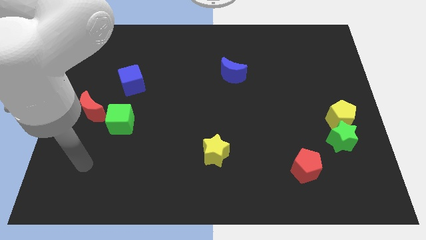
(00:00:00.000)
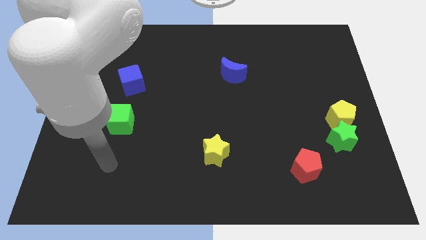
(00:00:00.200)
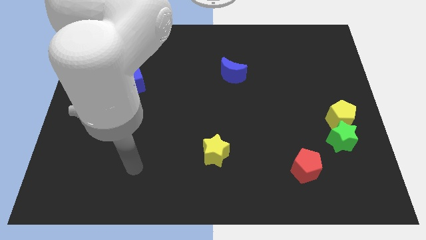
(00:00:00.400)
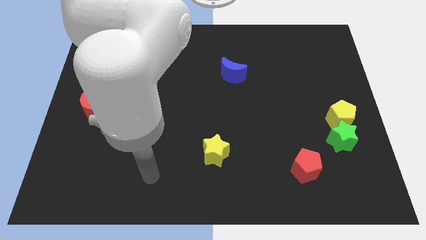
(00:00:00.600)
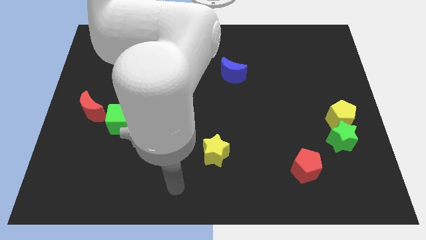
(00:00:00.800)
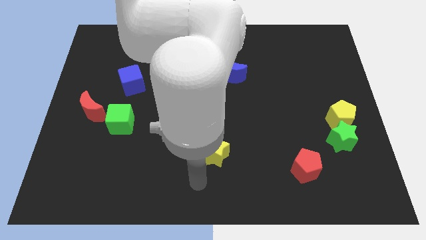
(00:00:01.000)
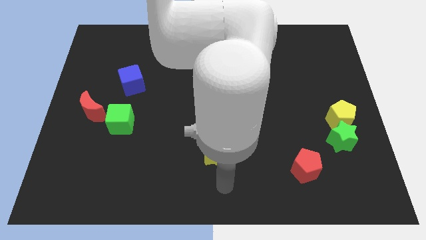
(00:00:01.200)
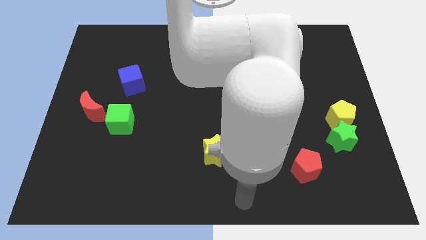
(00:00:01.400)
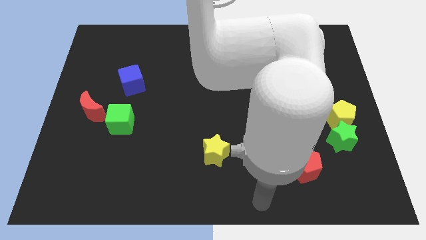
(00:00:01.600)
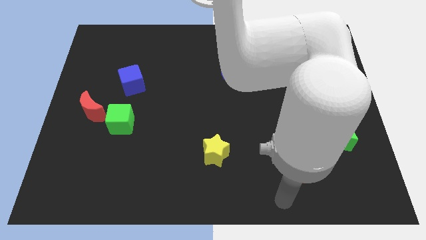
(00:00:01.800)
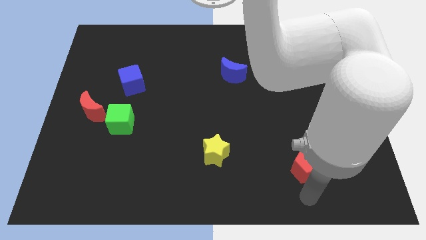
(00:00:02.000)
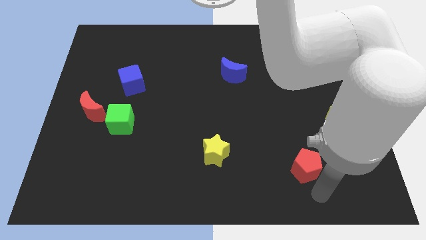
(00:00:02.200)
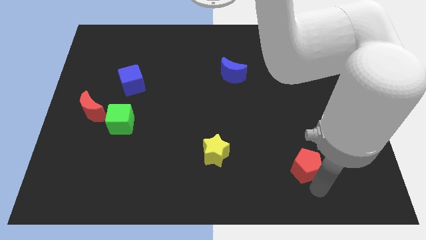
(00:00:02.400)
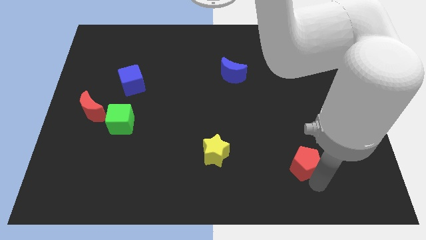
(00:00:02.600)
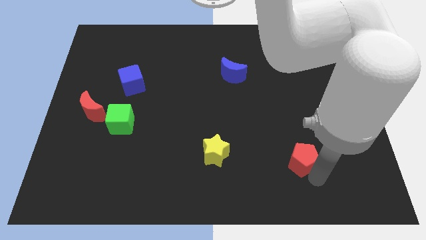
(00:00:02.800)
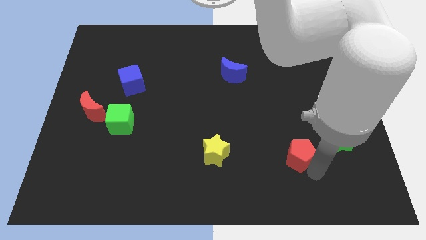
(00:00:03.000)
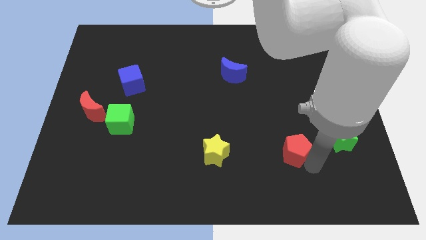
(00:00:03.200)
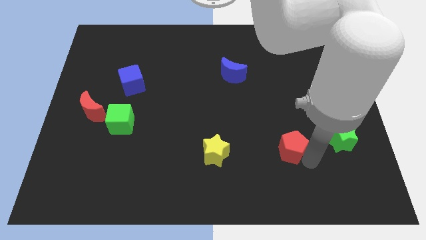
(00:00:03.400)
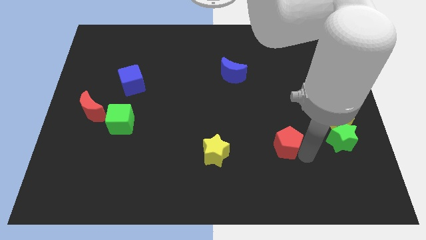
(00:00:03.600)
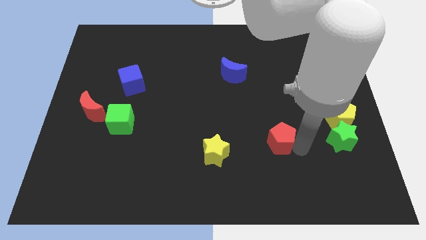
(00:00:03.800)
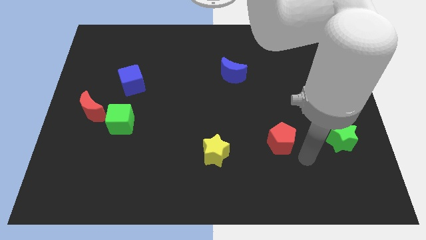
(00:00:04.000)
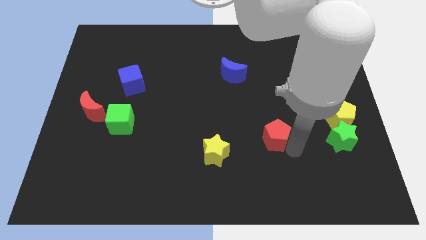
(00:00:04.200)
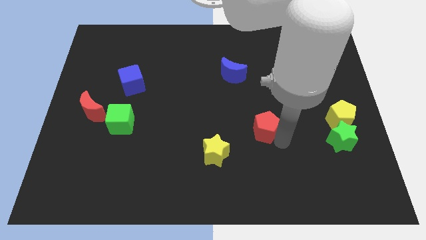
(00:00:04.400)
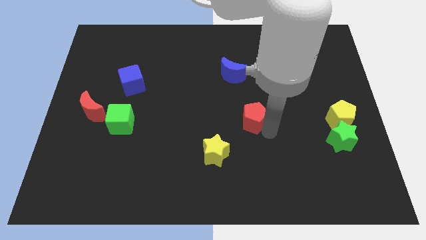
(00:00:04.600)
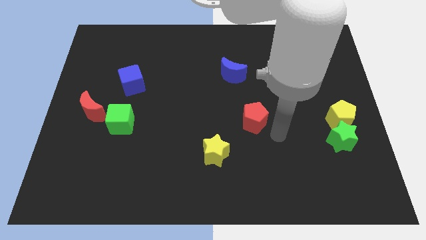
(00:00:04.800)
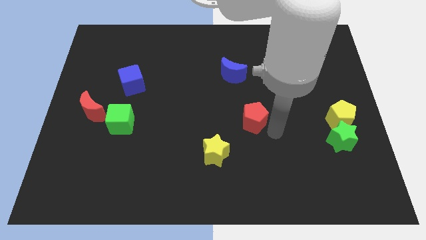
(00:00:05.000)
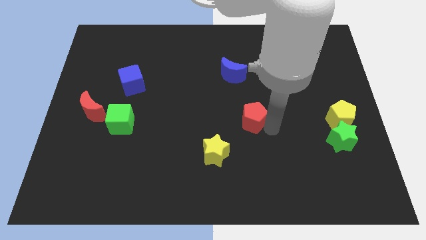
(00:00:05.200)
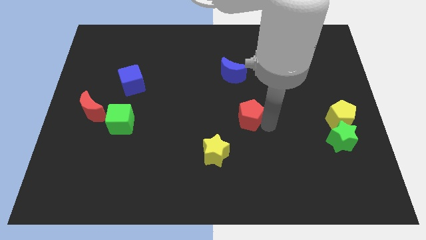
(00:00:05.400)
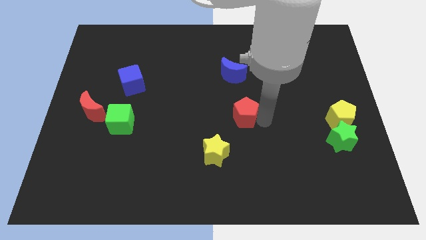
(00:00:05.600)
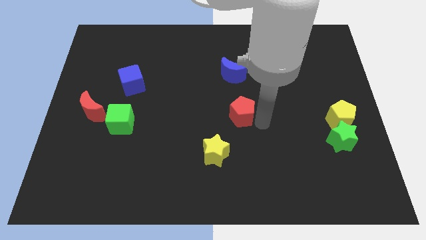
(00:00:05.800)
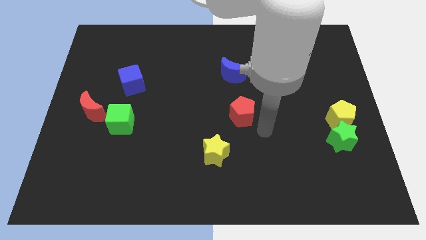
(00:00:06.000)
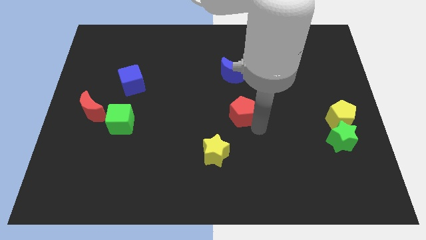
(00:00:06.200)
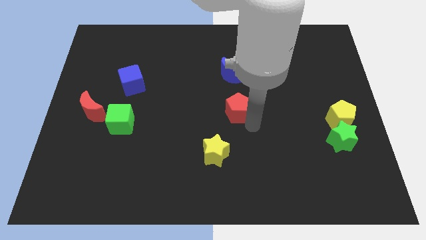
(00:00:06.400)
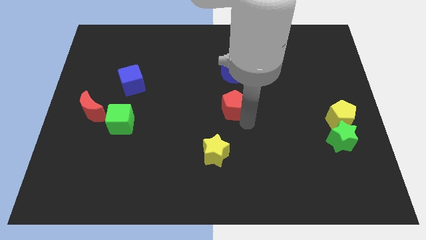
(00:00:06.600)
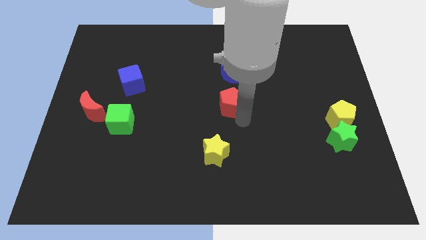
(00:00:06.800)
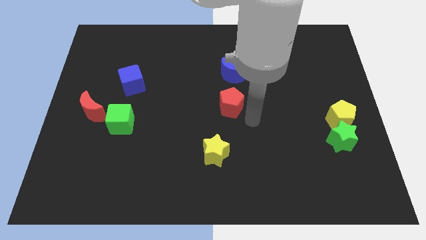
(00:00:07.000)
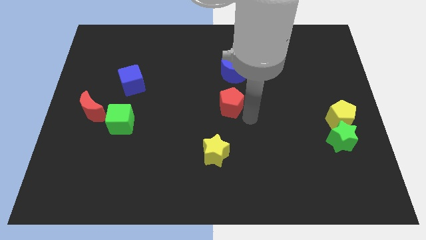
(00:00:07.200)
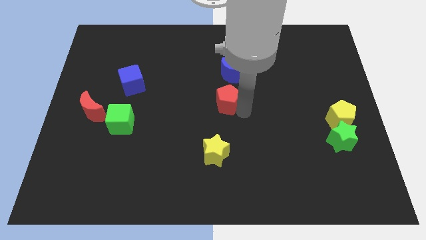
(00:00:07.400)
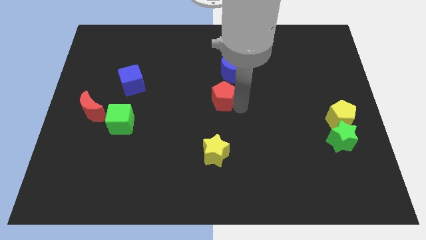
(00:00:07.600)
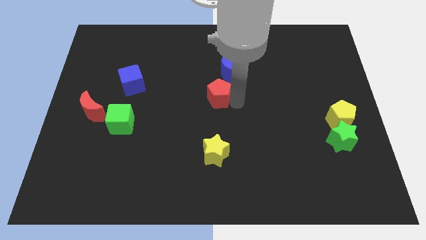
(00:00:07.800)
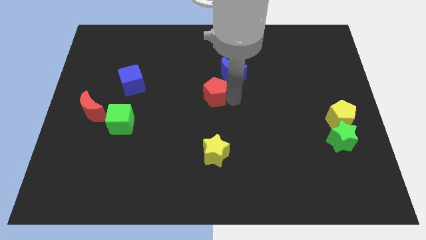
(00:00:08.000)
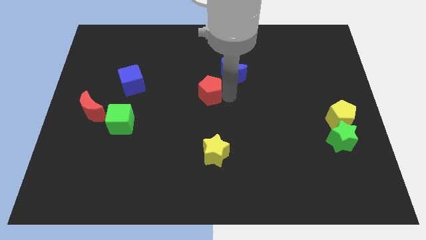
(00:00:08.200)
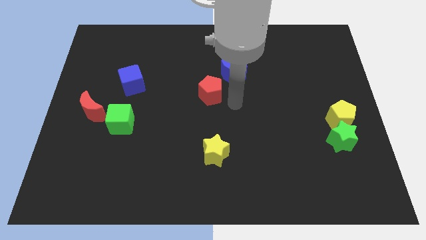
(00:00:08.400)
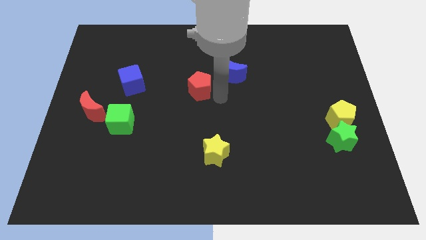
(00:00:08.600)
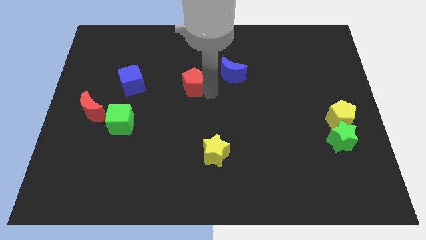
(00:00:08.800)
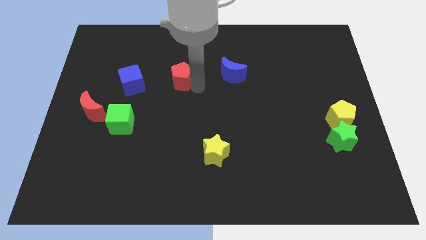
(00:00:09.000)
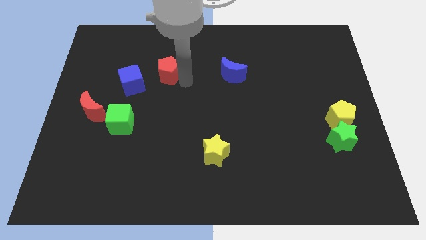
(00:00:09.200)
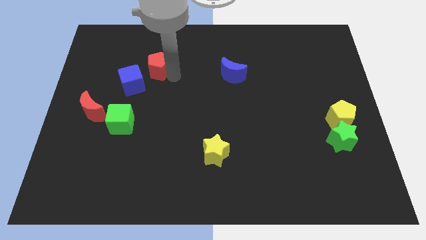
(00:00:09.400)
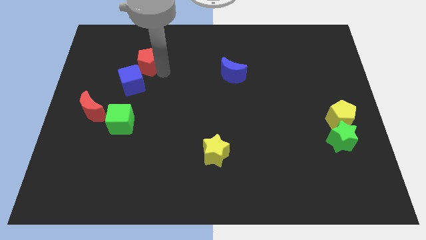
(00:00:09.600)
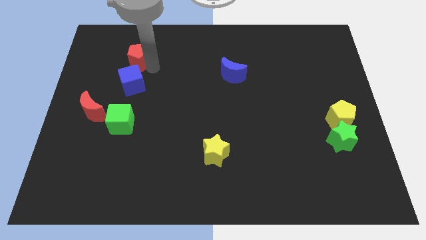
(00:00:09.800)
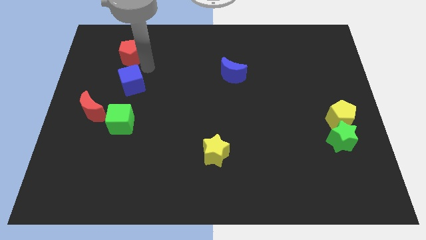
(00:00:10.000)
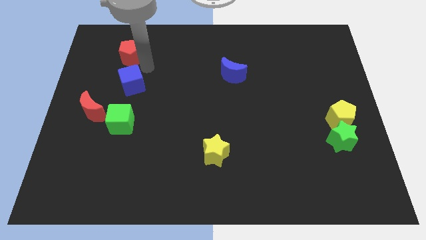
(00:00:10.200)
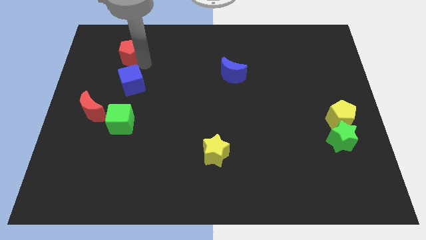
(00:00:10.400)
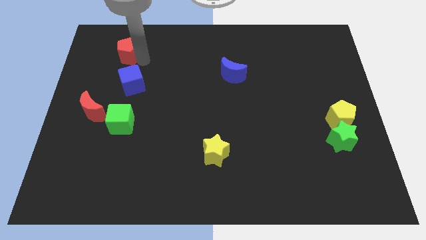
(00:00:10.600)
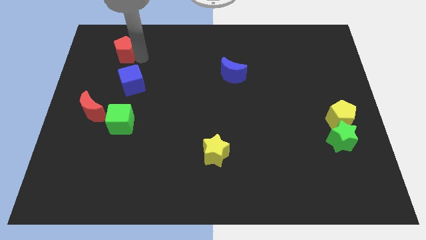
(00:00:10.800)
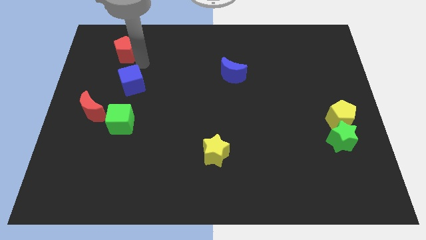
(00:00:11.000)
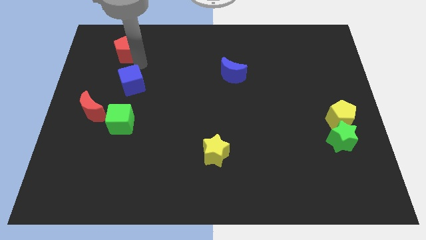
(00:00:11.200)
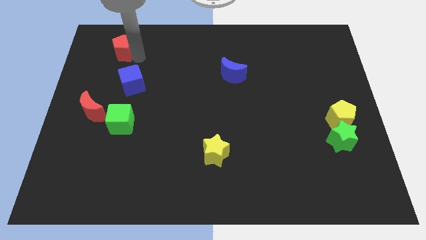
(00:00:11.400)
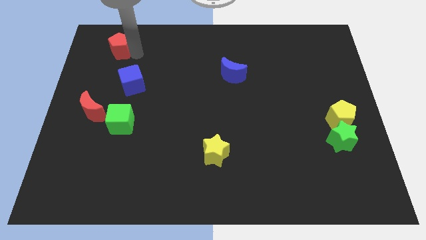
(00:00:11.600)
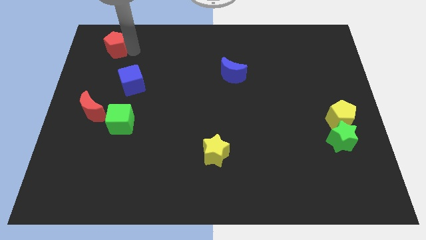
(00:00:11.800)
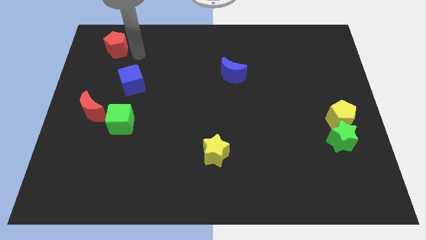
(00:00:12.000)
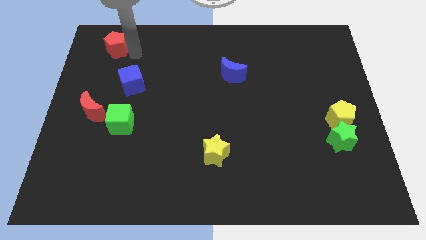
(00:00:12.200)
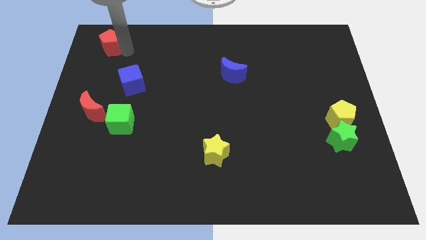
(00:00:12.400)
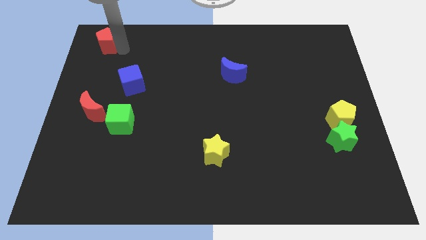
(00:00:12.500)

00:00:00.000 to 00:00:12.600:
put the red pentagon to the top left of the board
